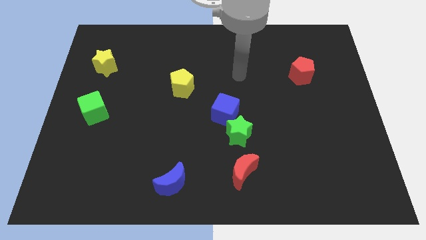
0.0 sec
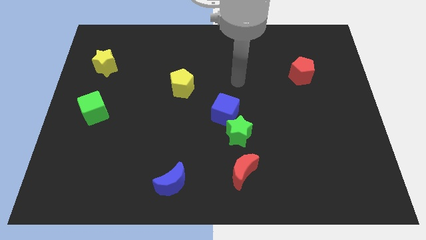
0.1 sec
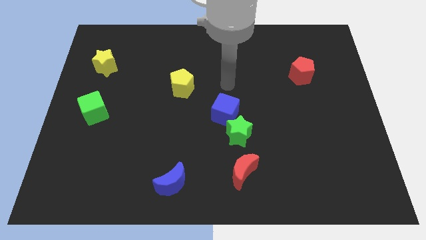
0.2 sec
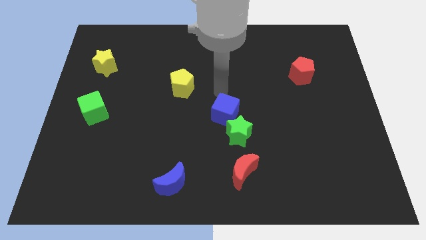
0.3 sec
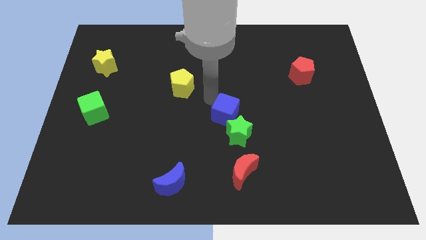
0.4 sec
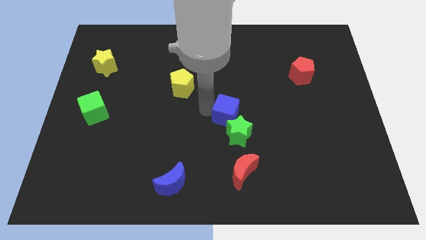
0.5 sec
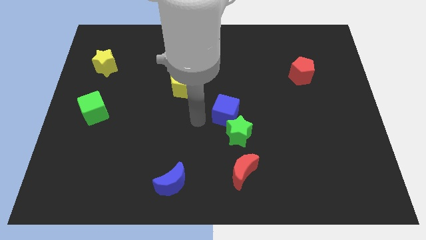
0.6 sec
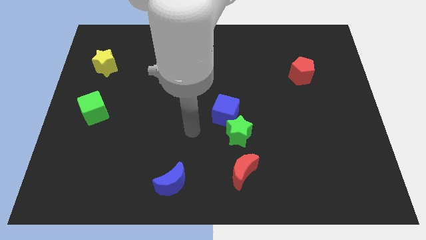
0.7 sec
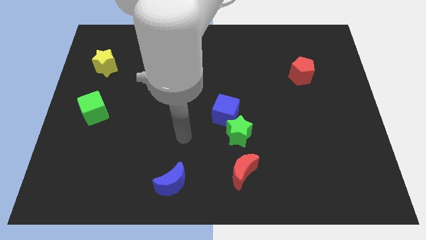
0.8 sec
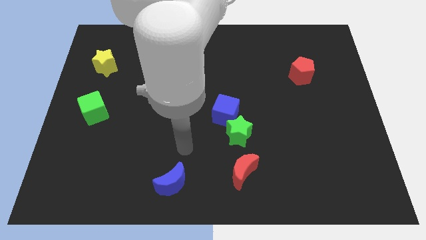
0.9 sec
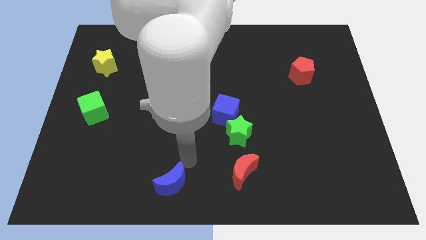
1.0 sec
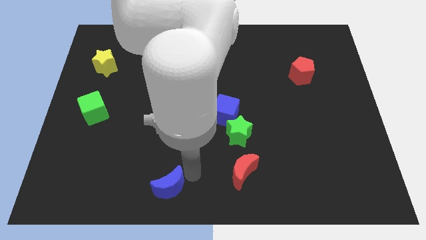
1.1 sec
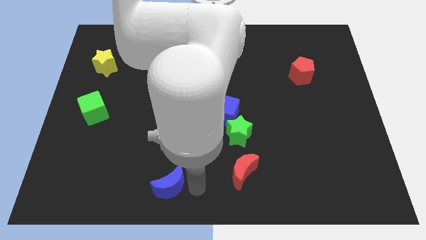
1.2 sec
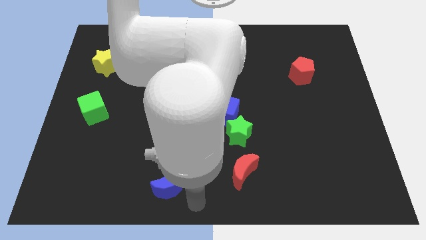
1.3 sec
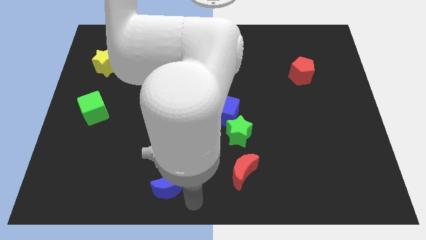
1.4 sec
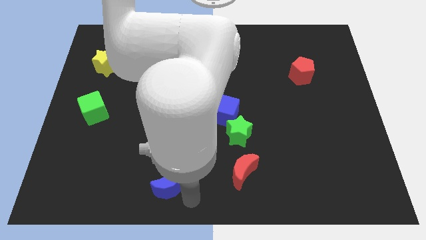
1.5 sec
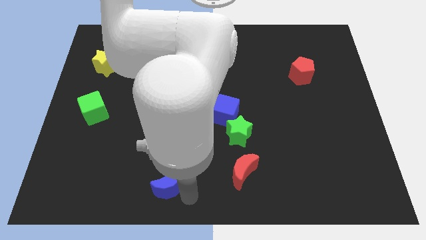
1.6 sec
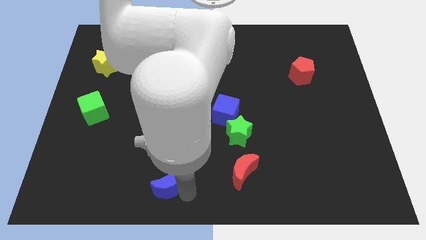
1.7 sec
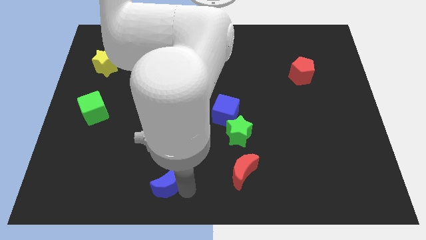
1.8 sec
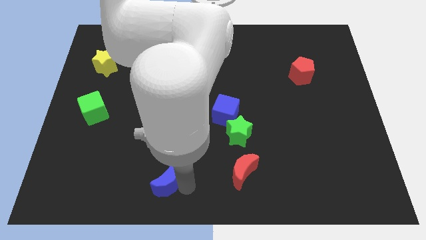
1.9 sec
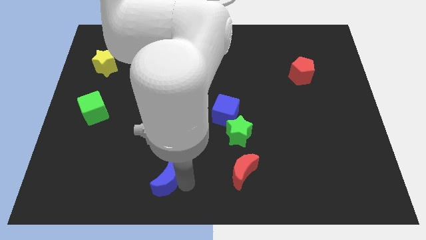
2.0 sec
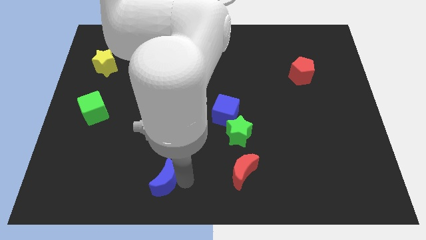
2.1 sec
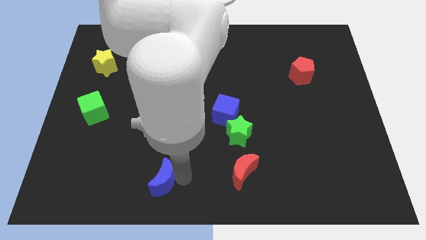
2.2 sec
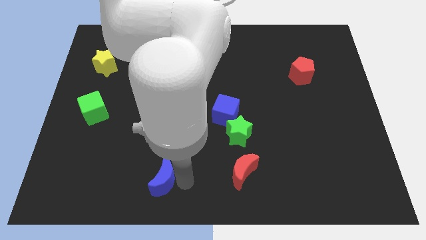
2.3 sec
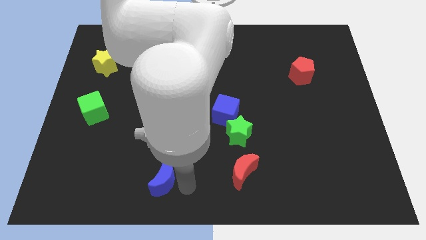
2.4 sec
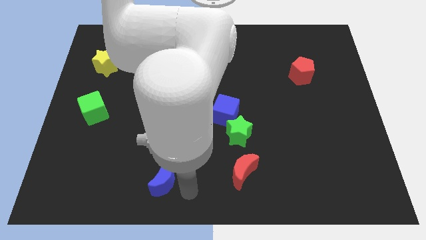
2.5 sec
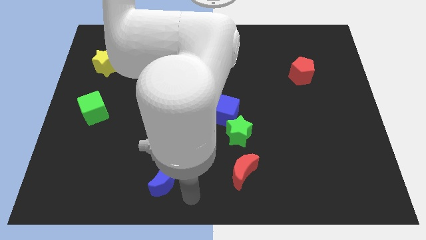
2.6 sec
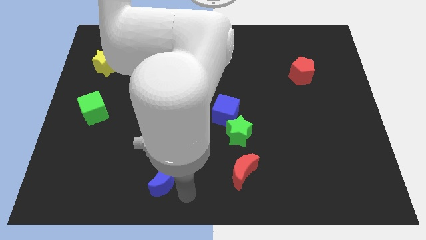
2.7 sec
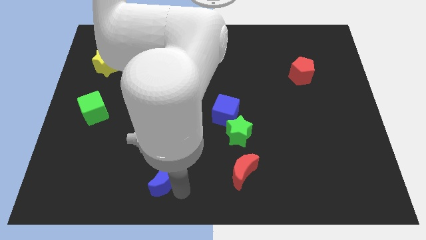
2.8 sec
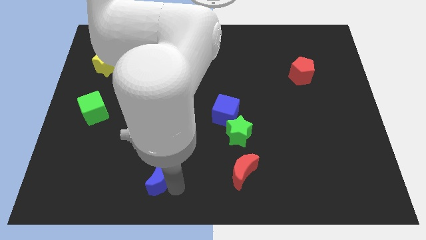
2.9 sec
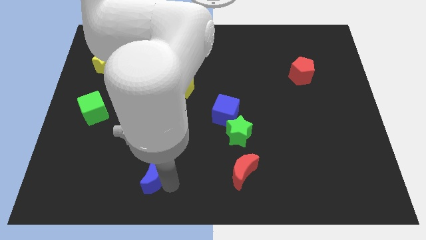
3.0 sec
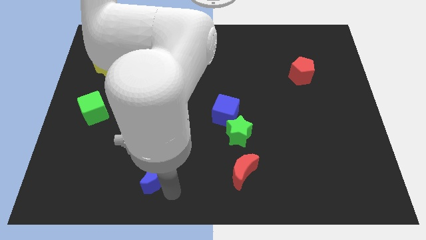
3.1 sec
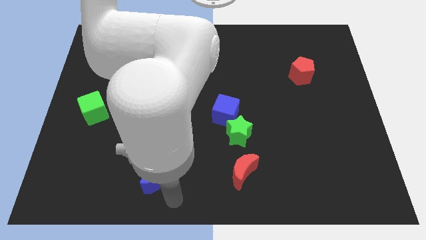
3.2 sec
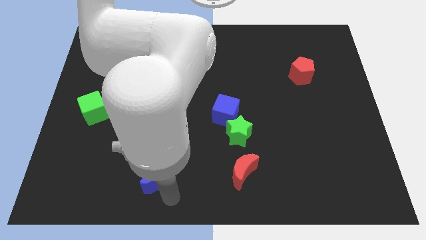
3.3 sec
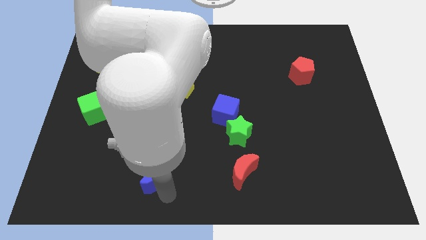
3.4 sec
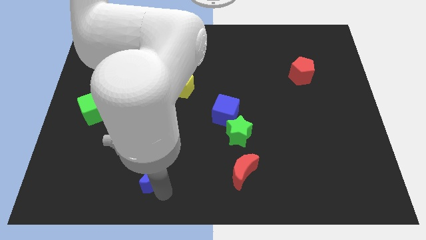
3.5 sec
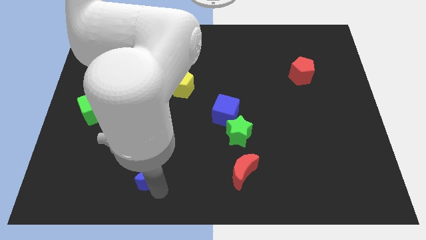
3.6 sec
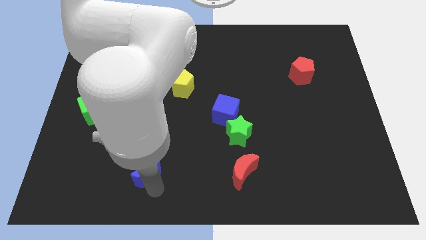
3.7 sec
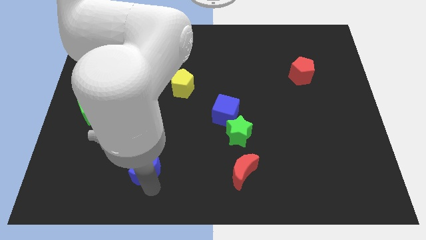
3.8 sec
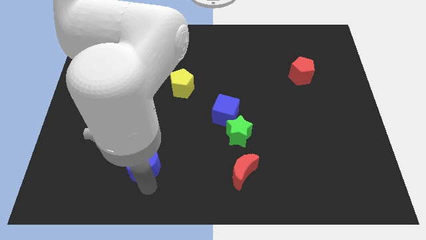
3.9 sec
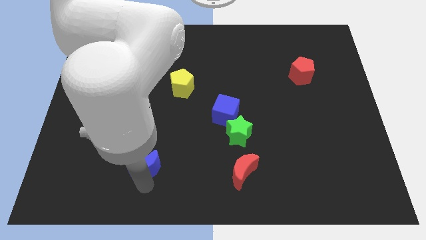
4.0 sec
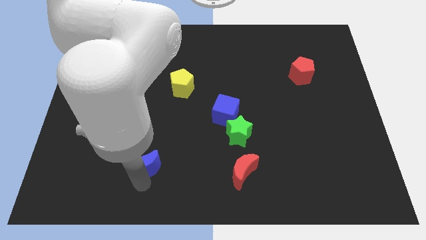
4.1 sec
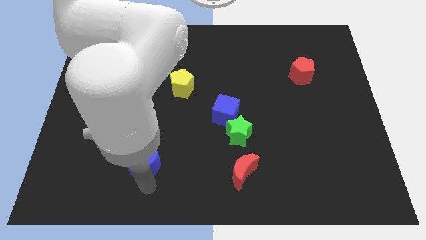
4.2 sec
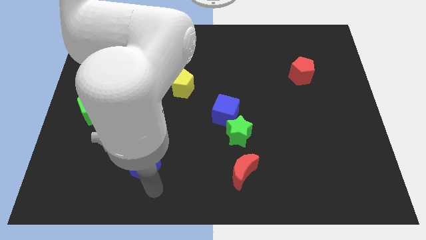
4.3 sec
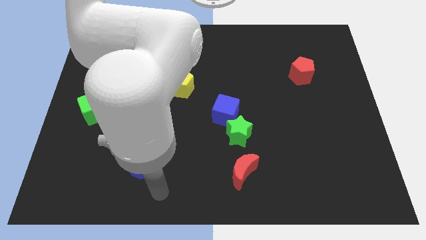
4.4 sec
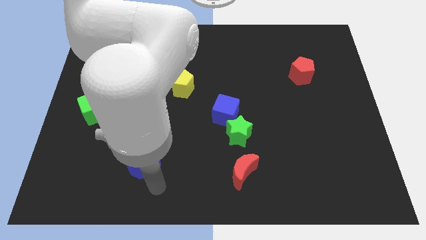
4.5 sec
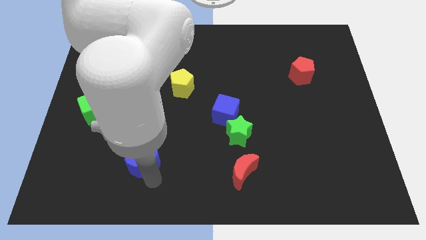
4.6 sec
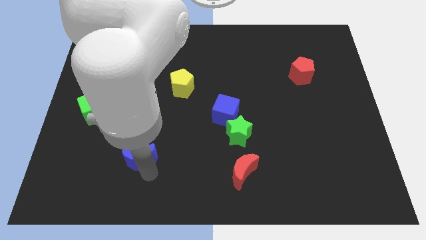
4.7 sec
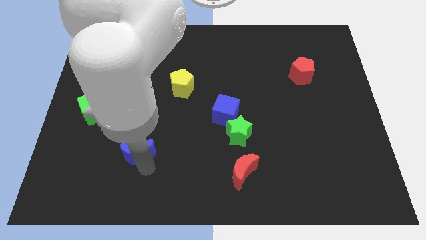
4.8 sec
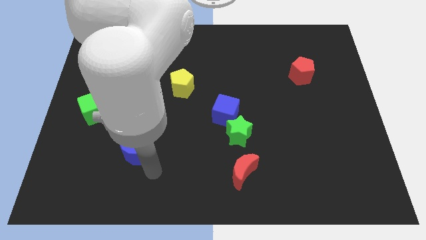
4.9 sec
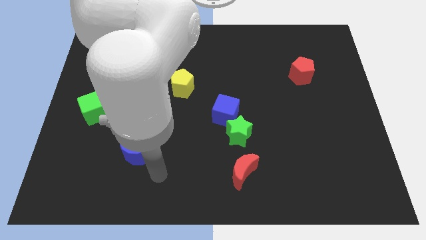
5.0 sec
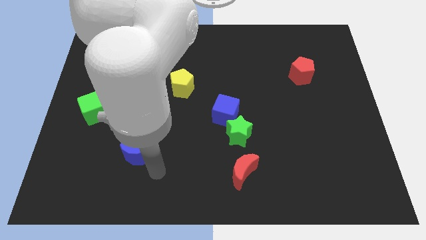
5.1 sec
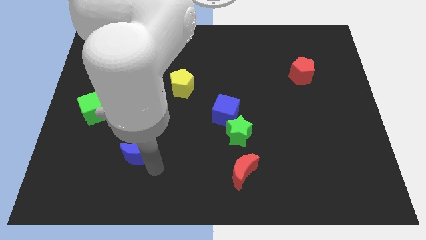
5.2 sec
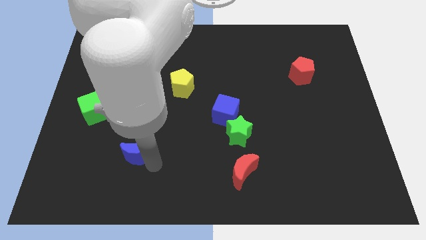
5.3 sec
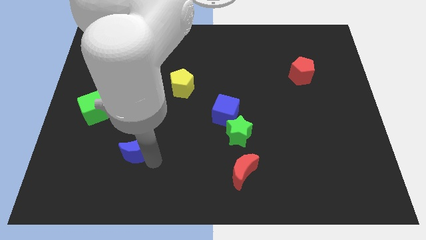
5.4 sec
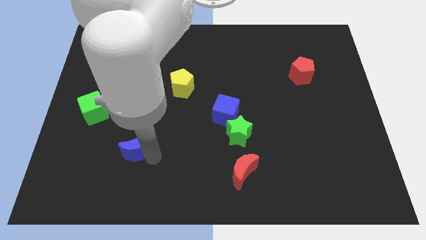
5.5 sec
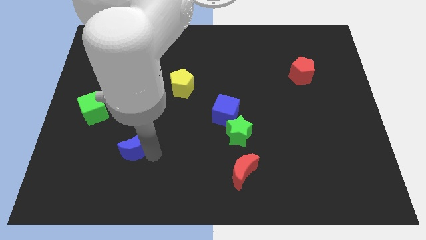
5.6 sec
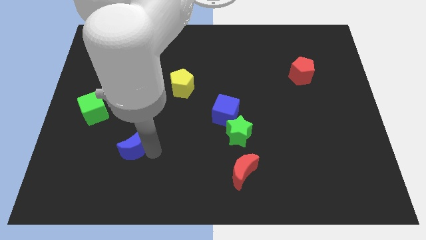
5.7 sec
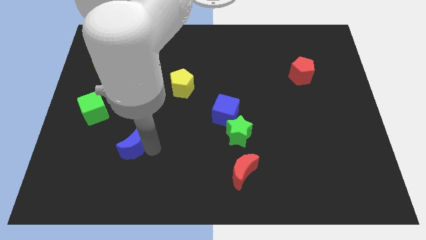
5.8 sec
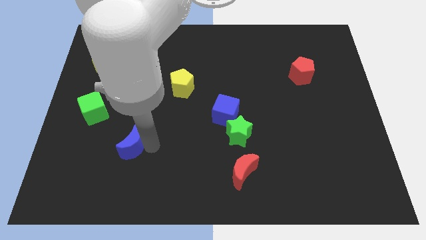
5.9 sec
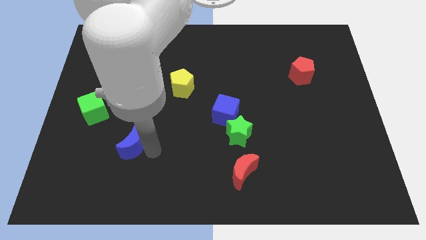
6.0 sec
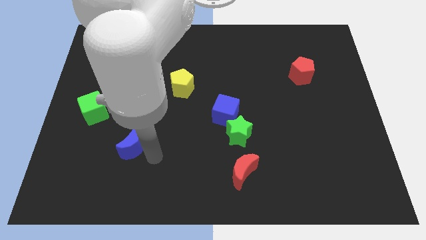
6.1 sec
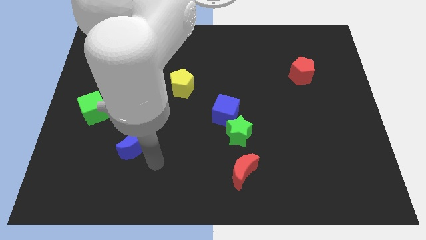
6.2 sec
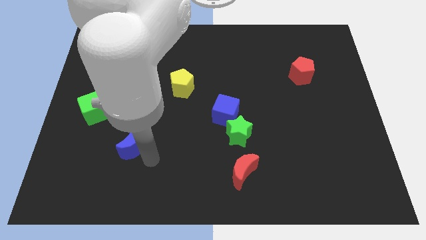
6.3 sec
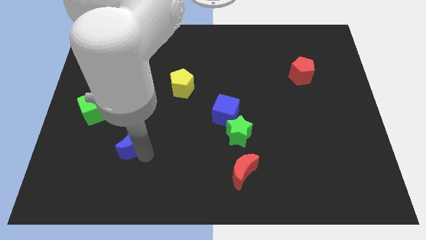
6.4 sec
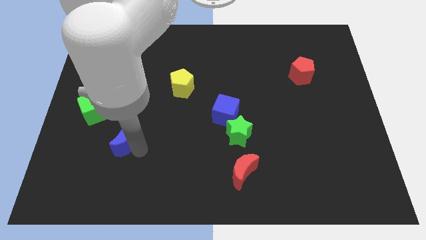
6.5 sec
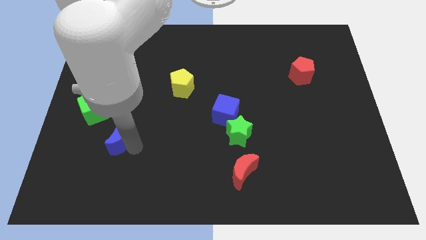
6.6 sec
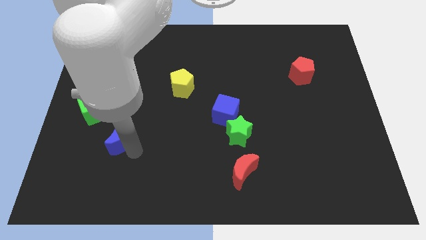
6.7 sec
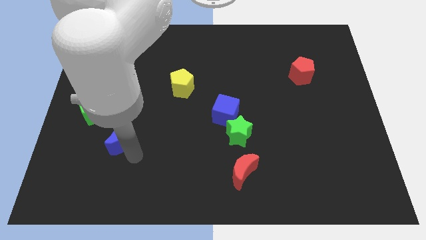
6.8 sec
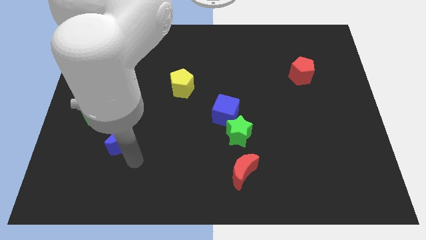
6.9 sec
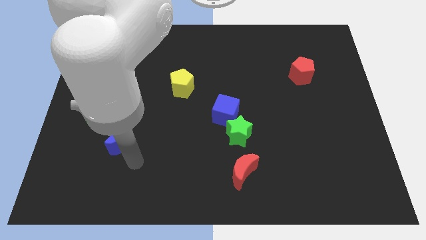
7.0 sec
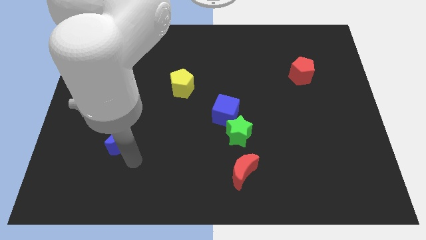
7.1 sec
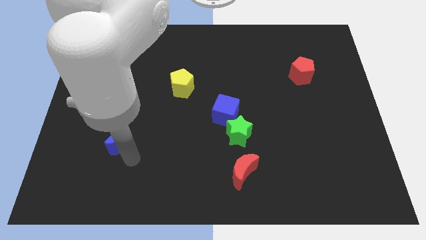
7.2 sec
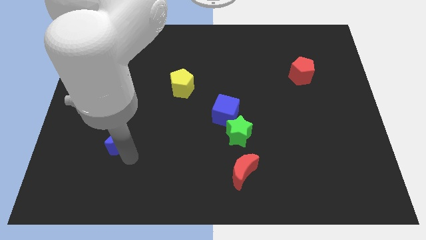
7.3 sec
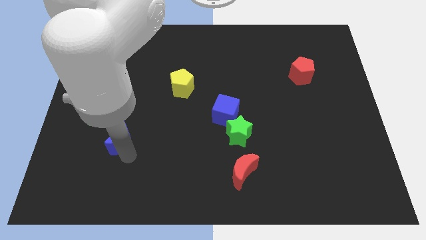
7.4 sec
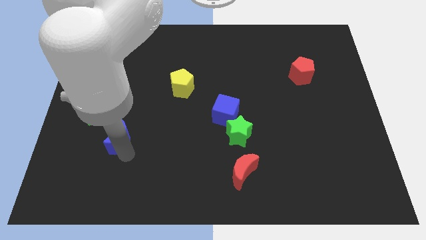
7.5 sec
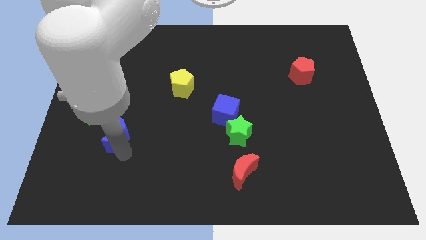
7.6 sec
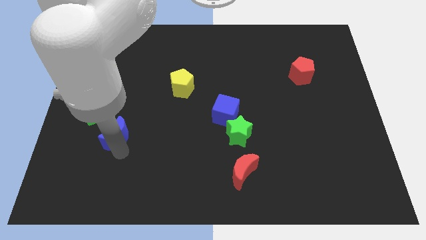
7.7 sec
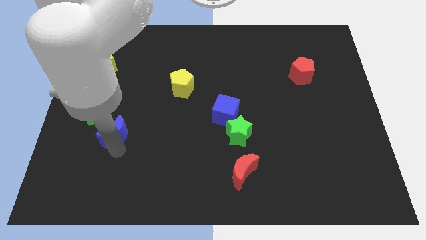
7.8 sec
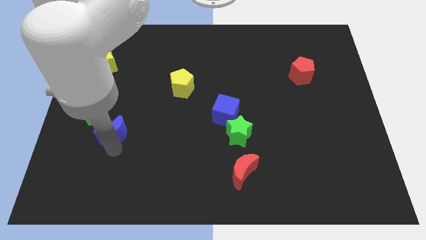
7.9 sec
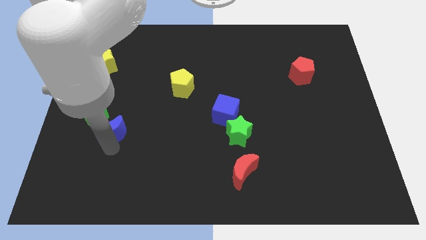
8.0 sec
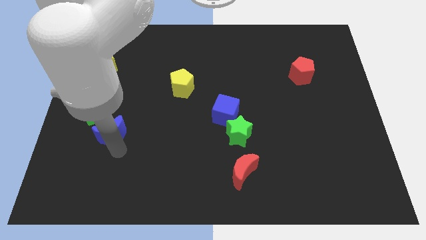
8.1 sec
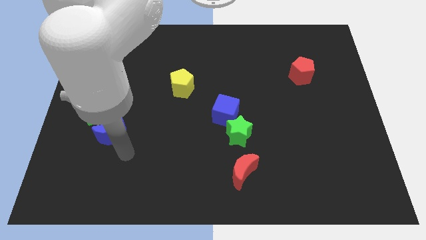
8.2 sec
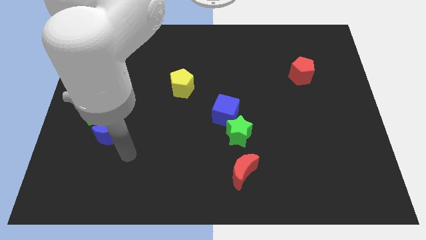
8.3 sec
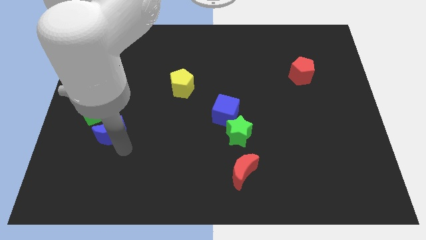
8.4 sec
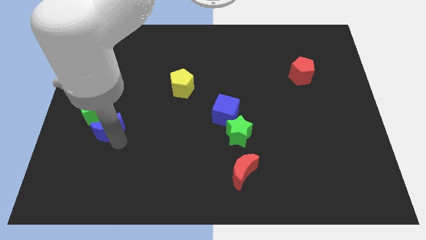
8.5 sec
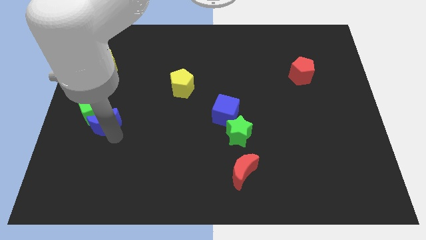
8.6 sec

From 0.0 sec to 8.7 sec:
move the blue moon next to the green cube
